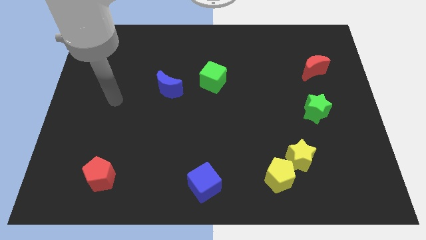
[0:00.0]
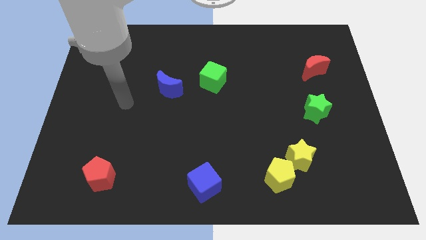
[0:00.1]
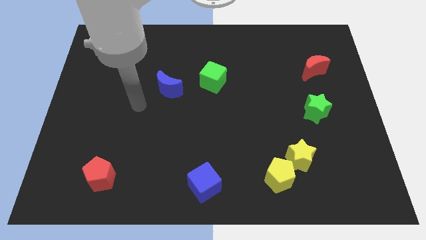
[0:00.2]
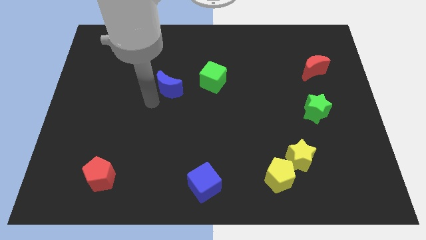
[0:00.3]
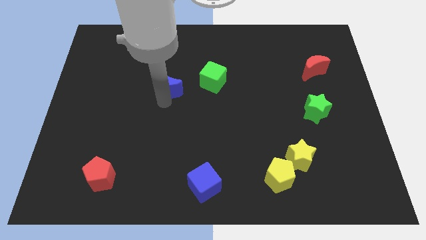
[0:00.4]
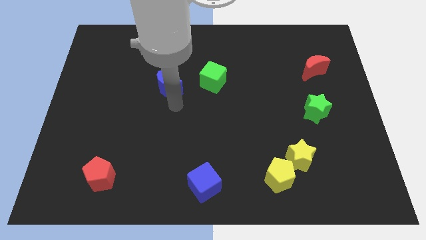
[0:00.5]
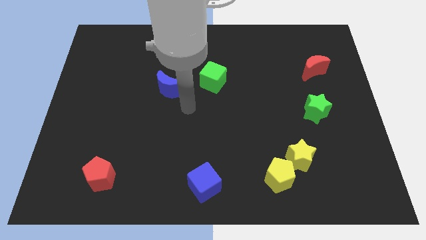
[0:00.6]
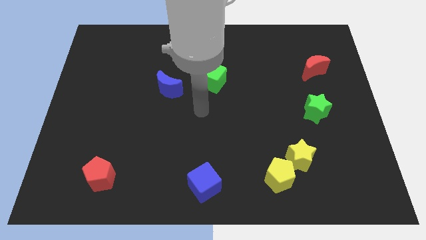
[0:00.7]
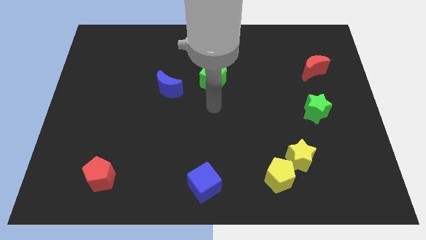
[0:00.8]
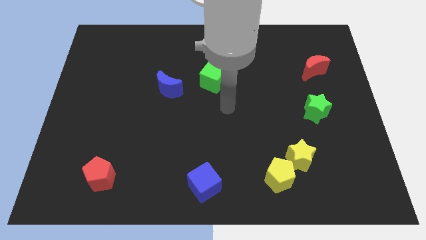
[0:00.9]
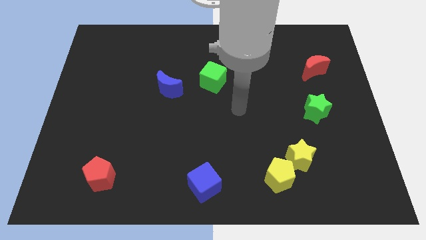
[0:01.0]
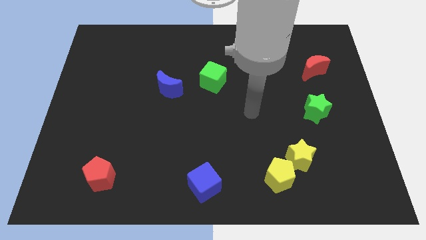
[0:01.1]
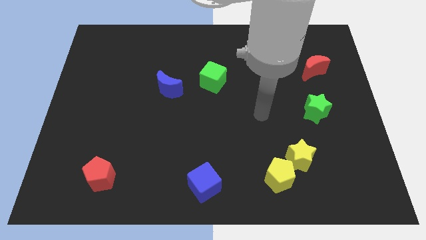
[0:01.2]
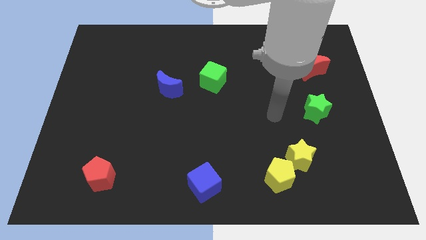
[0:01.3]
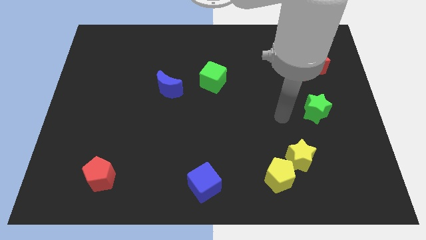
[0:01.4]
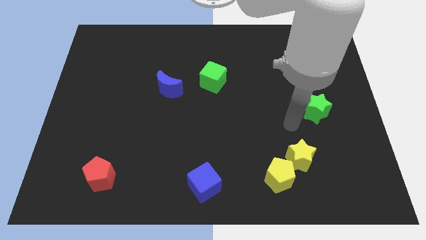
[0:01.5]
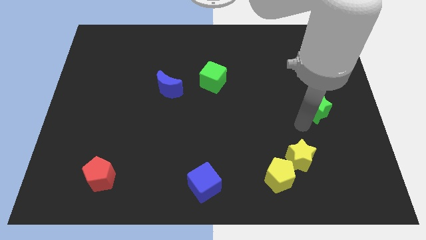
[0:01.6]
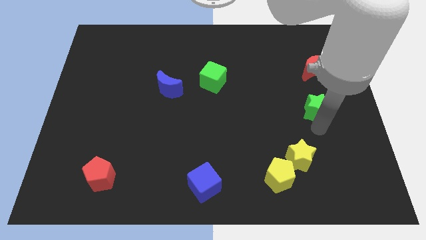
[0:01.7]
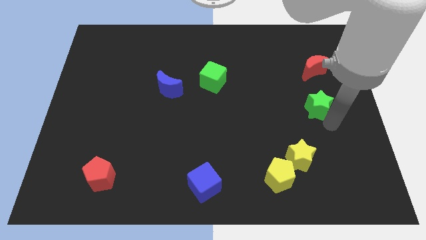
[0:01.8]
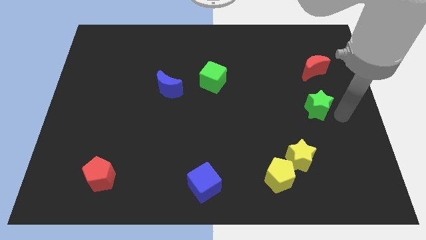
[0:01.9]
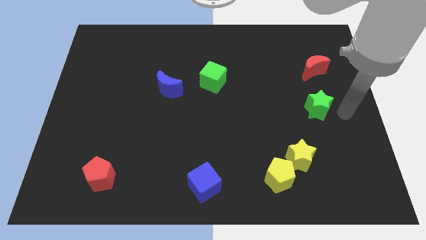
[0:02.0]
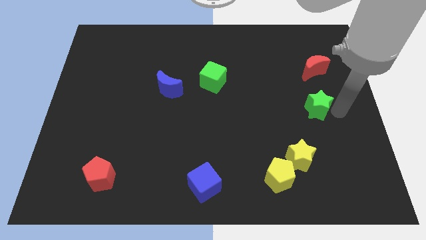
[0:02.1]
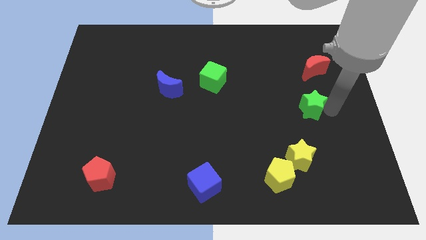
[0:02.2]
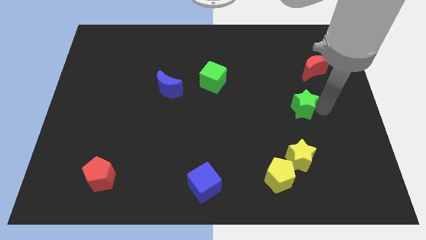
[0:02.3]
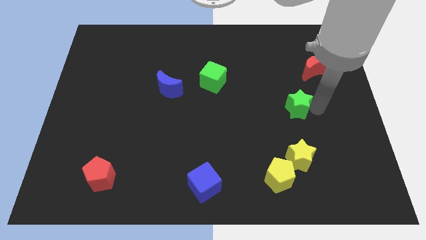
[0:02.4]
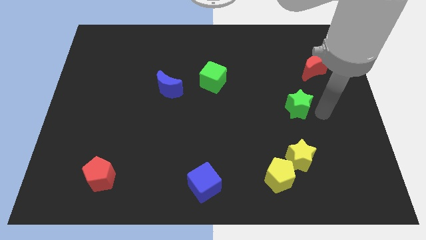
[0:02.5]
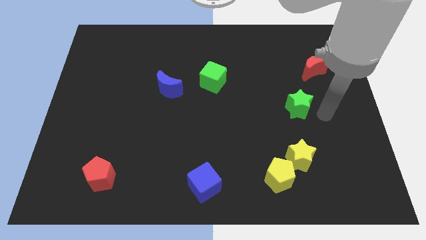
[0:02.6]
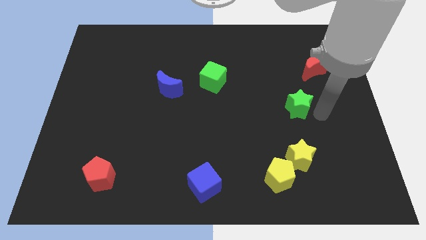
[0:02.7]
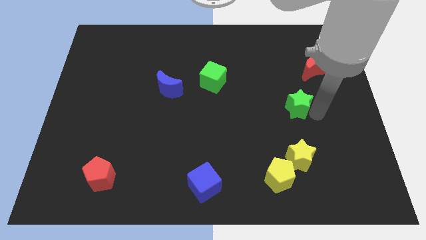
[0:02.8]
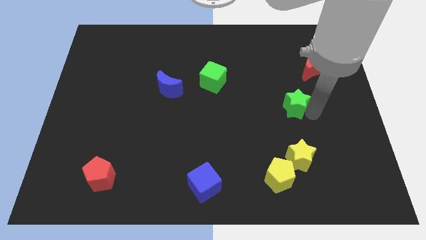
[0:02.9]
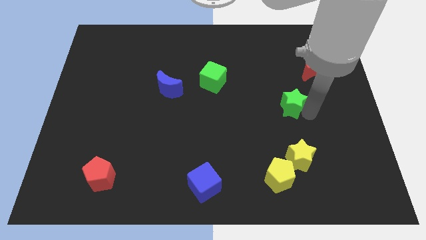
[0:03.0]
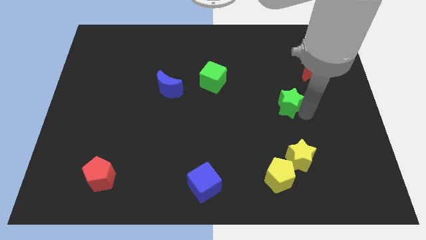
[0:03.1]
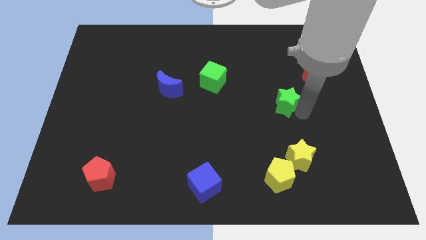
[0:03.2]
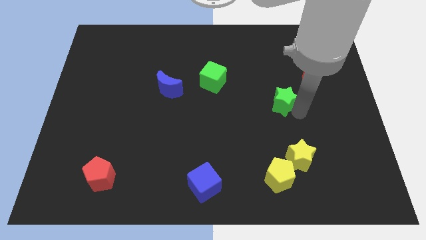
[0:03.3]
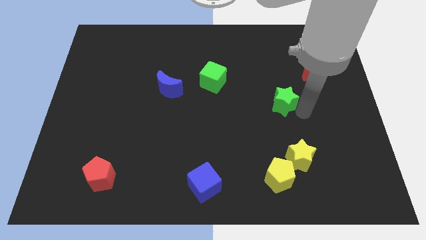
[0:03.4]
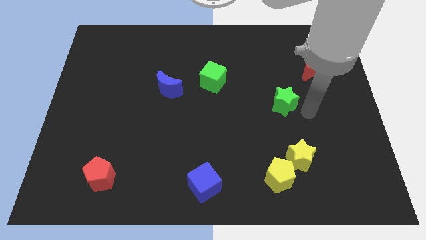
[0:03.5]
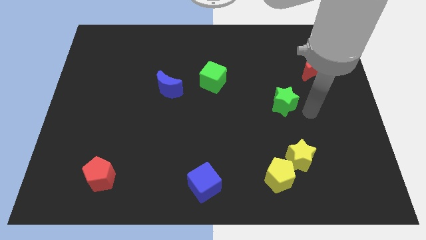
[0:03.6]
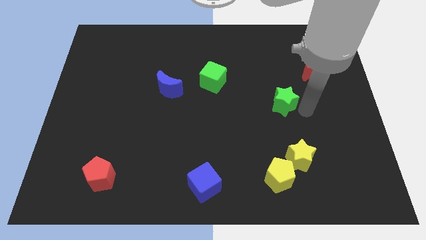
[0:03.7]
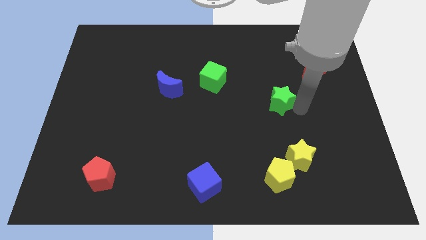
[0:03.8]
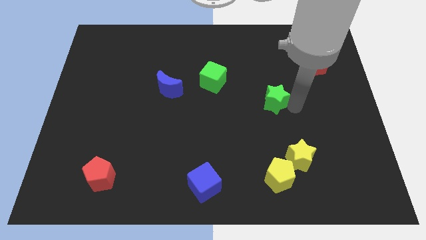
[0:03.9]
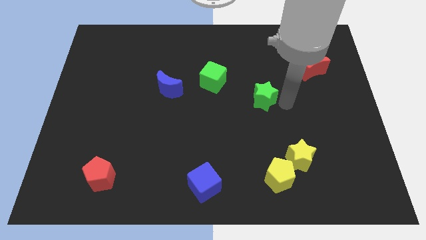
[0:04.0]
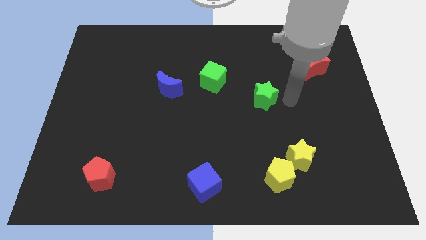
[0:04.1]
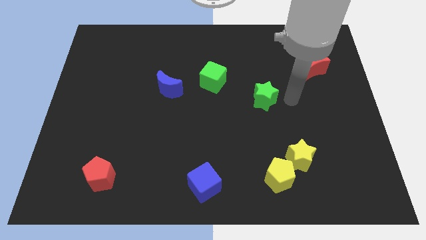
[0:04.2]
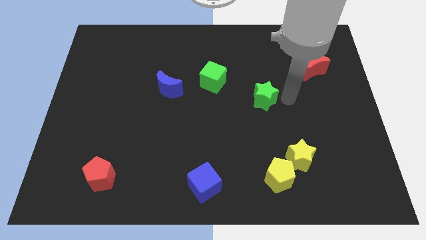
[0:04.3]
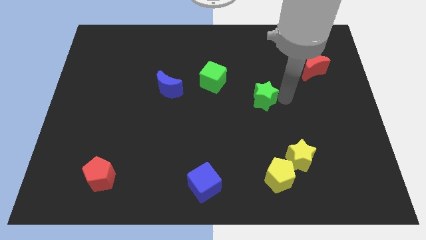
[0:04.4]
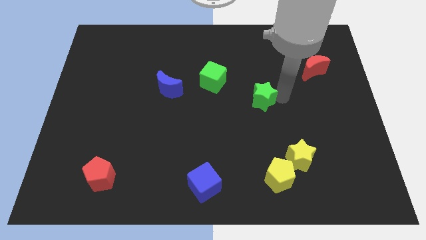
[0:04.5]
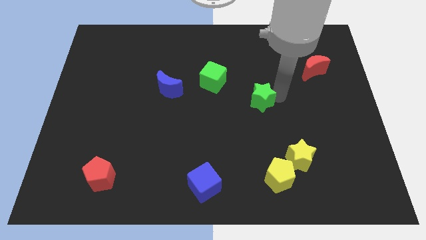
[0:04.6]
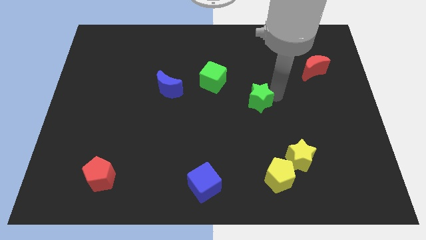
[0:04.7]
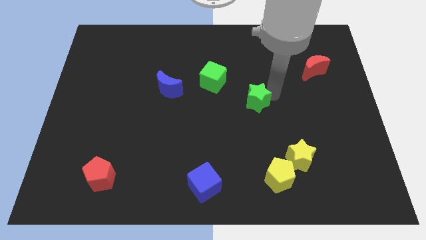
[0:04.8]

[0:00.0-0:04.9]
move the green star to the bottom right of the green cube

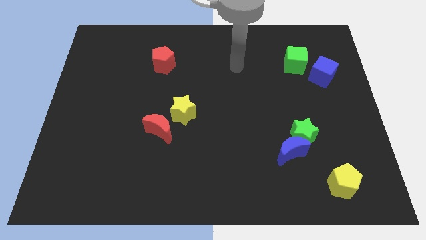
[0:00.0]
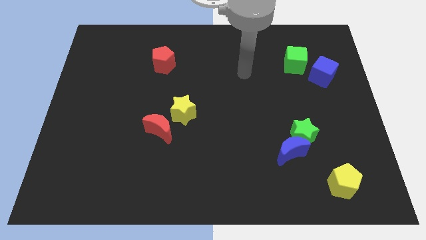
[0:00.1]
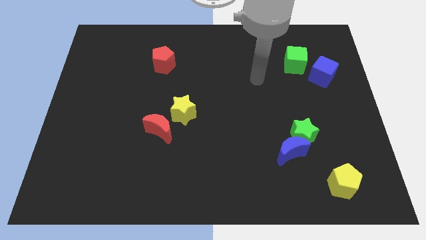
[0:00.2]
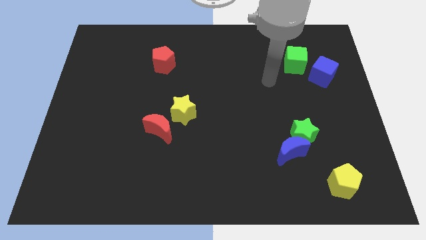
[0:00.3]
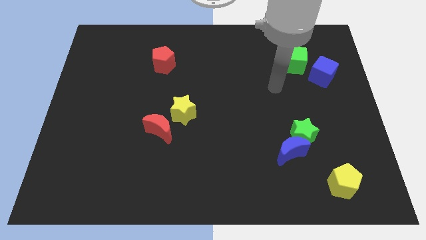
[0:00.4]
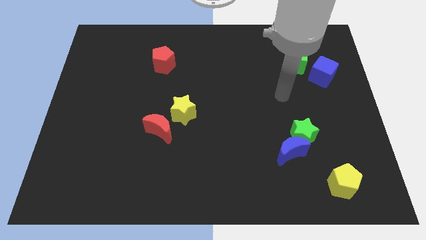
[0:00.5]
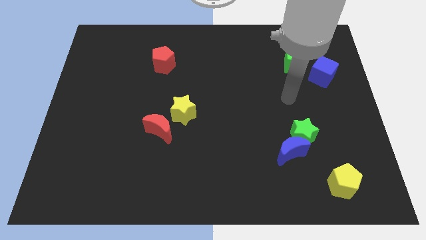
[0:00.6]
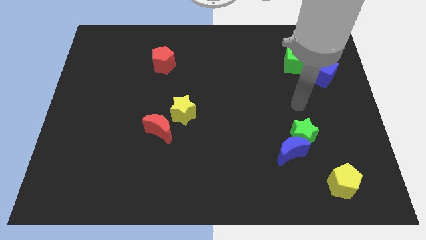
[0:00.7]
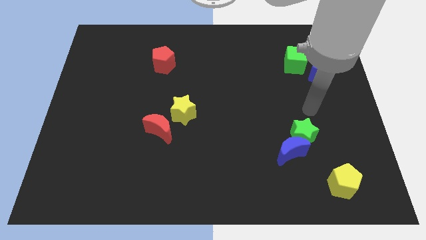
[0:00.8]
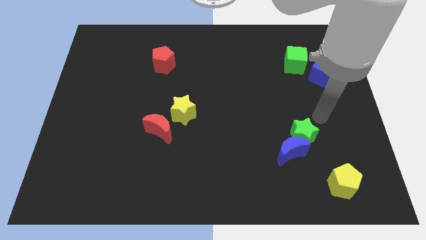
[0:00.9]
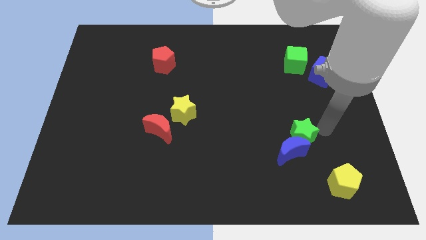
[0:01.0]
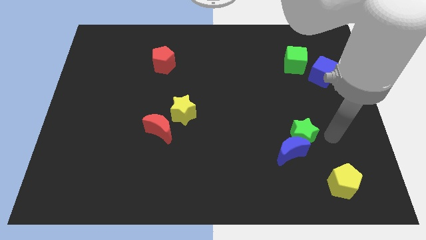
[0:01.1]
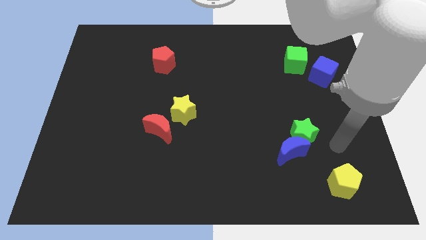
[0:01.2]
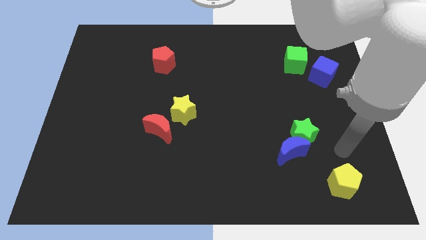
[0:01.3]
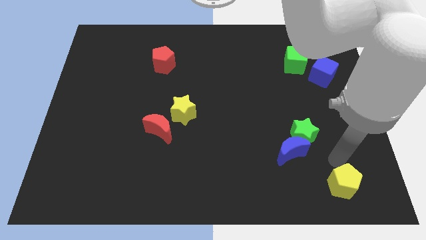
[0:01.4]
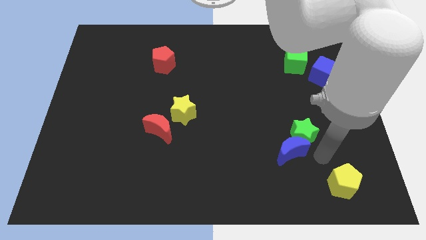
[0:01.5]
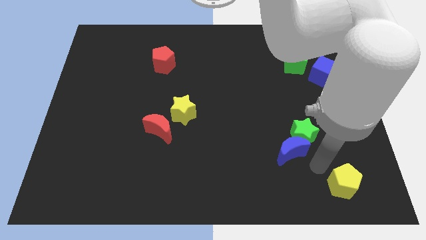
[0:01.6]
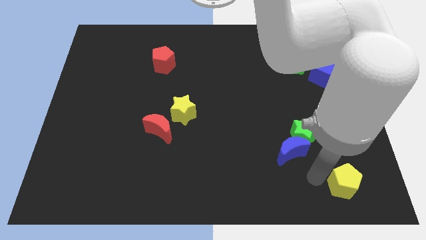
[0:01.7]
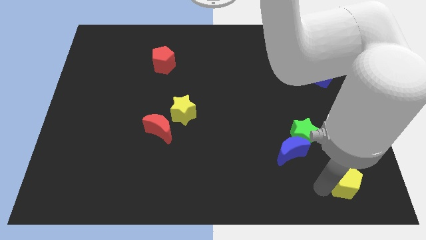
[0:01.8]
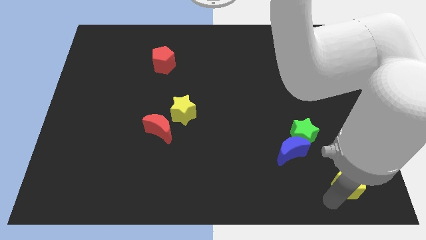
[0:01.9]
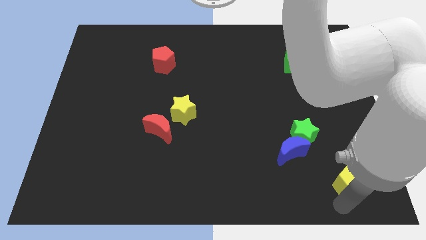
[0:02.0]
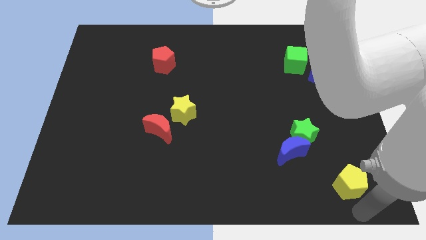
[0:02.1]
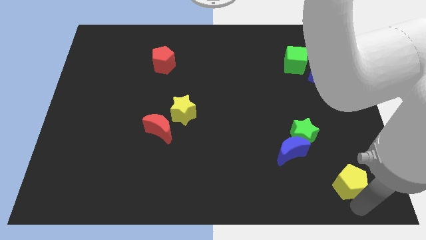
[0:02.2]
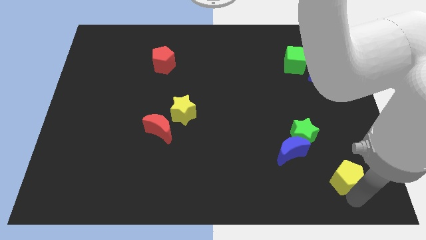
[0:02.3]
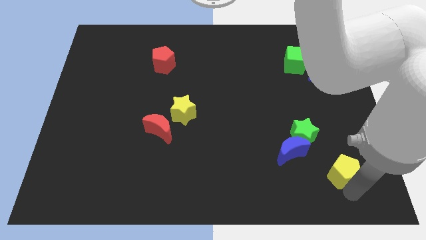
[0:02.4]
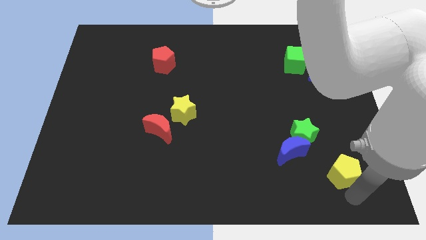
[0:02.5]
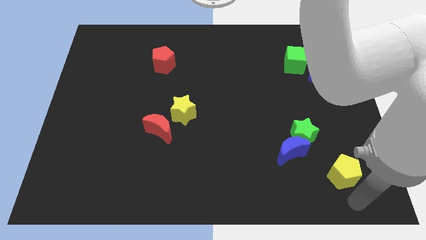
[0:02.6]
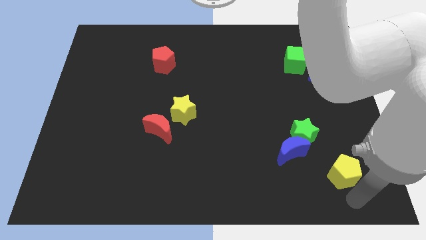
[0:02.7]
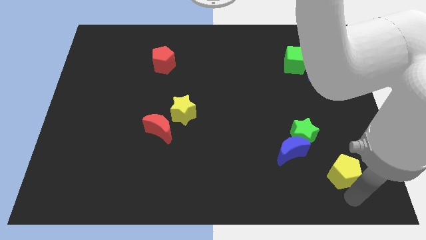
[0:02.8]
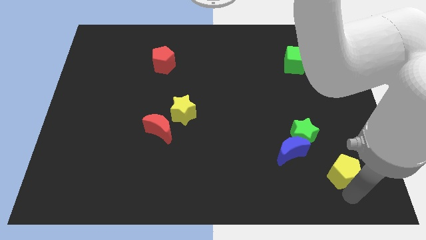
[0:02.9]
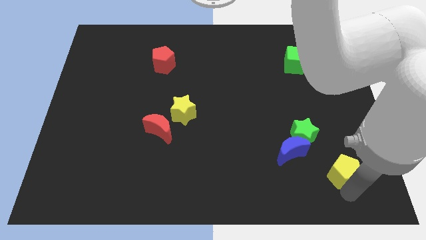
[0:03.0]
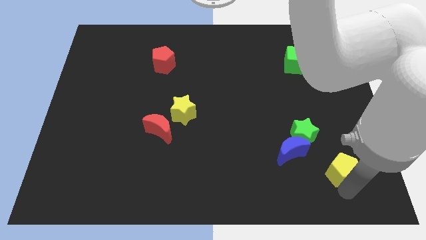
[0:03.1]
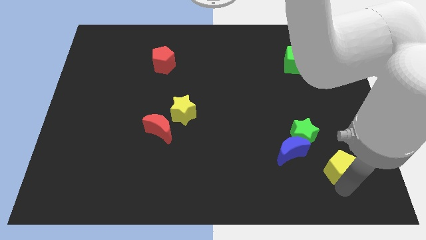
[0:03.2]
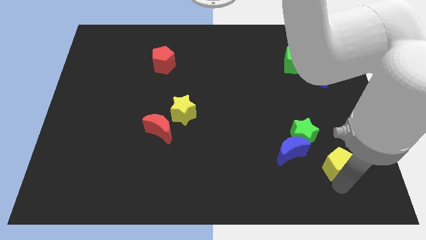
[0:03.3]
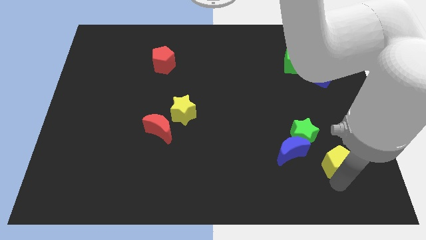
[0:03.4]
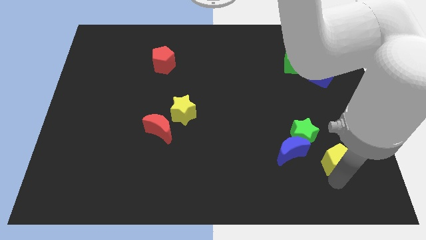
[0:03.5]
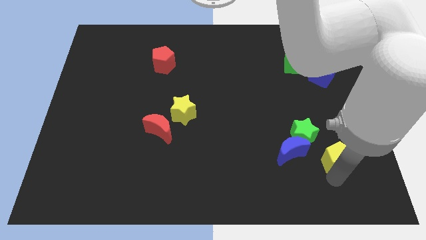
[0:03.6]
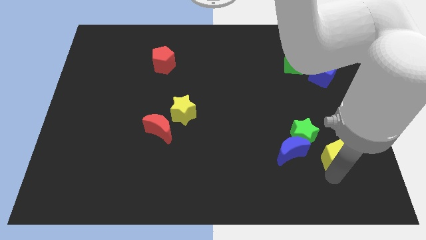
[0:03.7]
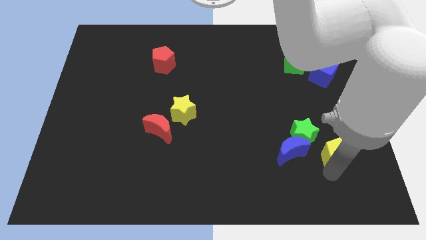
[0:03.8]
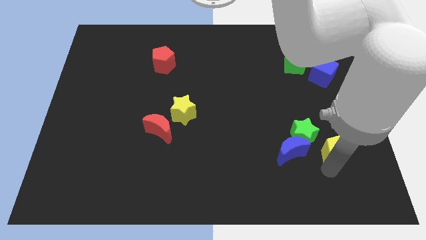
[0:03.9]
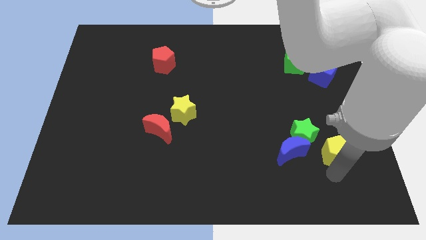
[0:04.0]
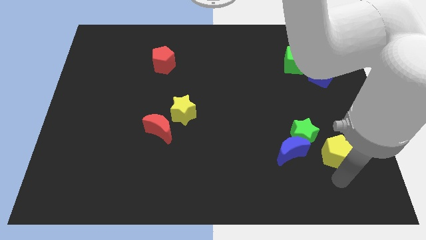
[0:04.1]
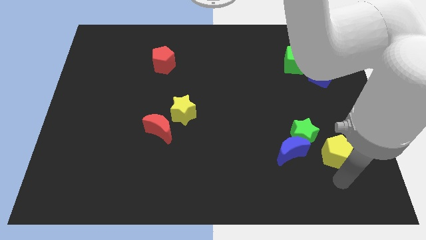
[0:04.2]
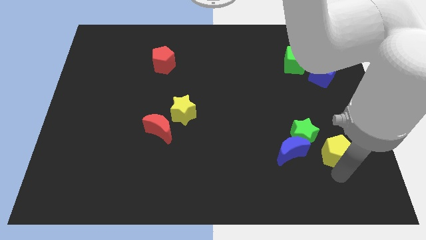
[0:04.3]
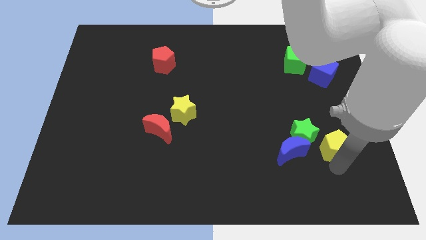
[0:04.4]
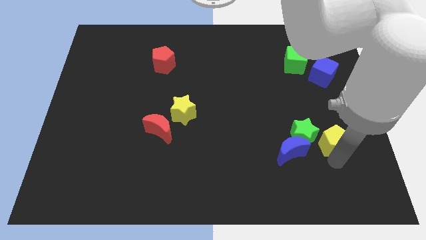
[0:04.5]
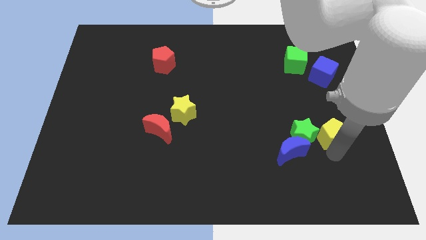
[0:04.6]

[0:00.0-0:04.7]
slide the yellow pentagon diagonally up and to the right of the green star
